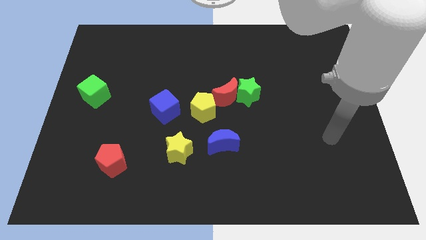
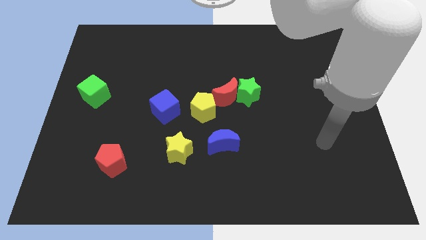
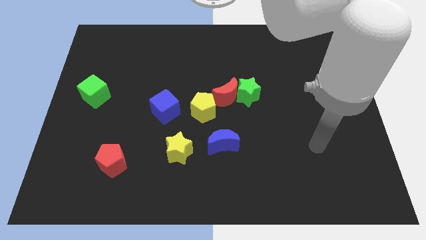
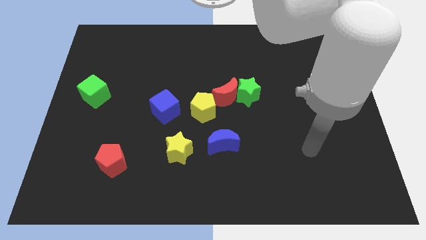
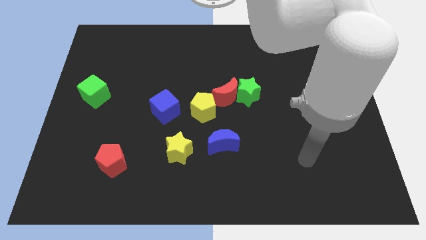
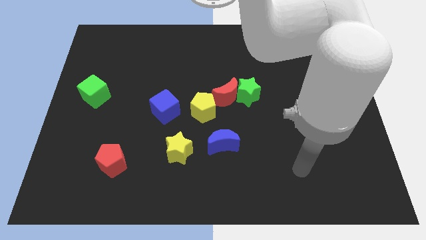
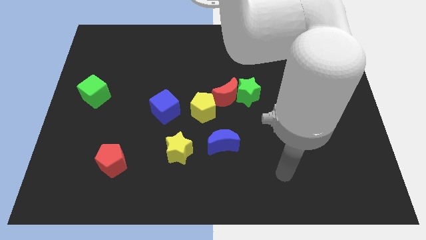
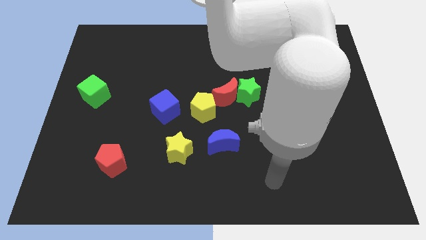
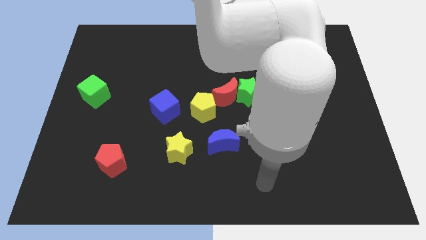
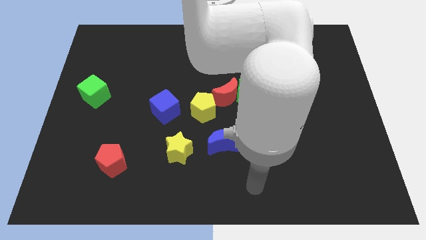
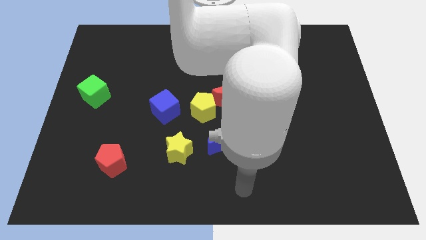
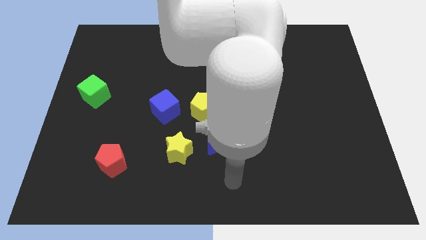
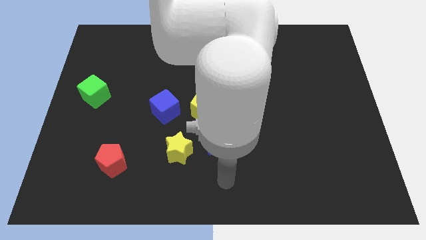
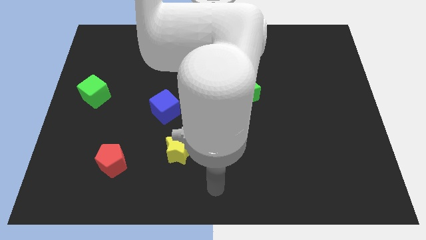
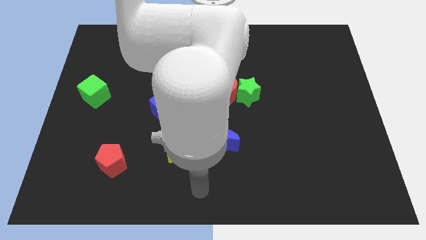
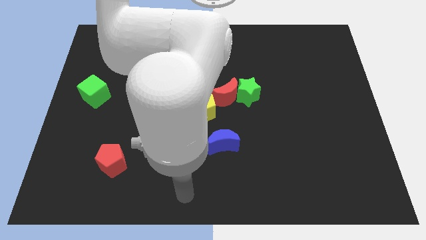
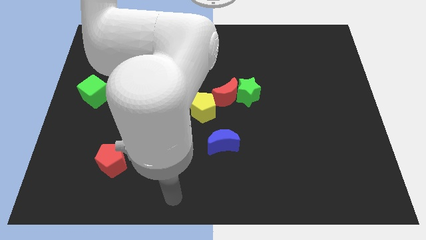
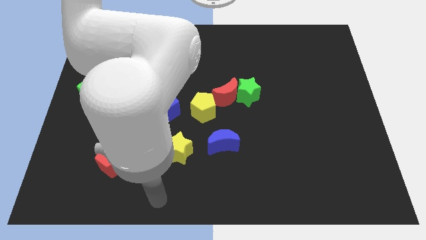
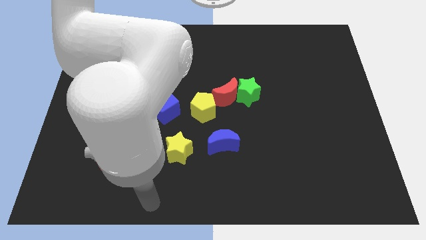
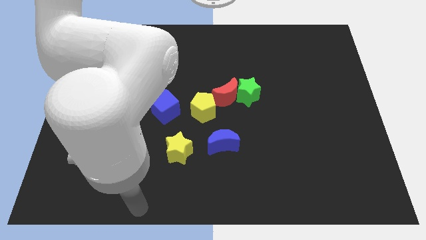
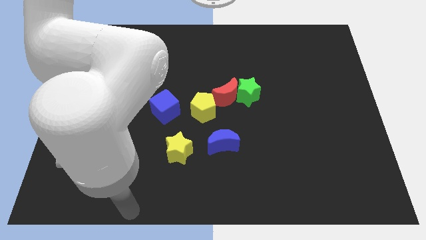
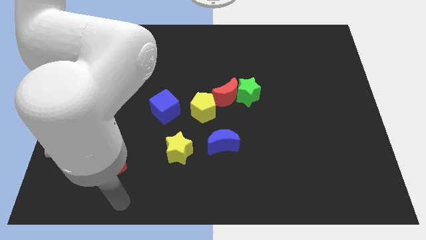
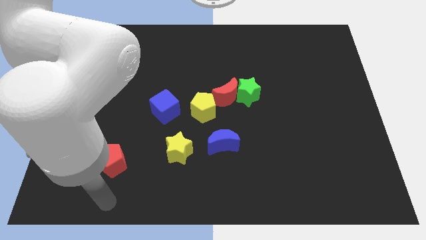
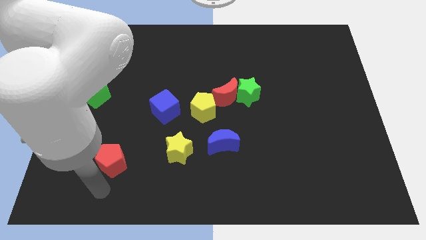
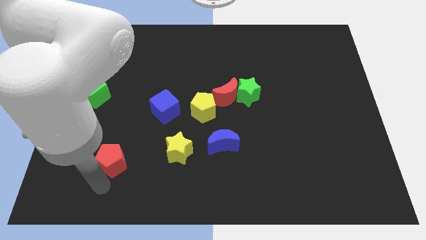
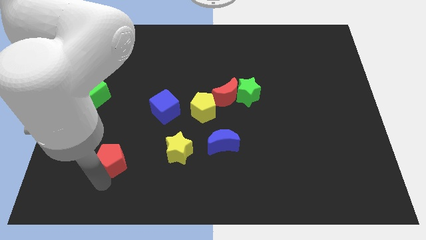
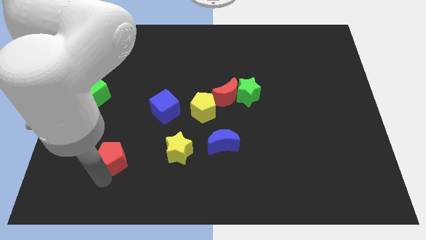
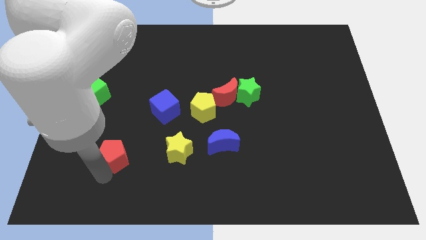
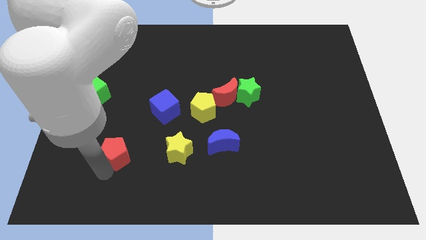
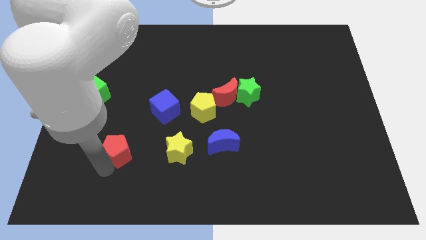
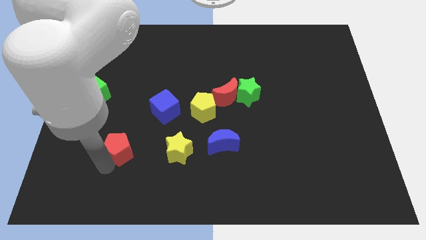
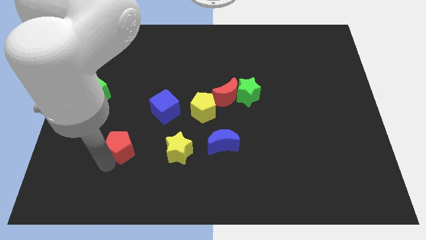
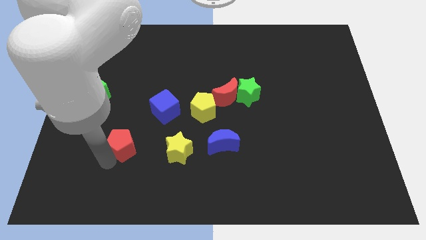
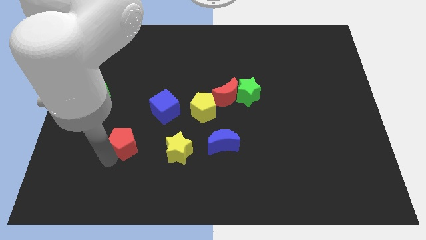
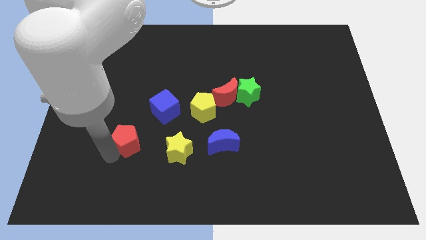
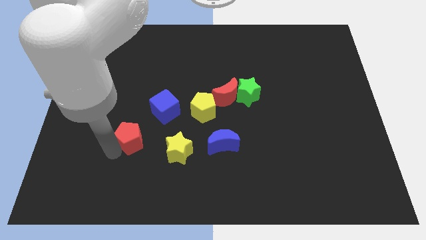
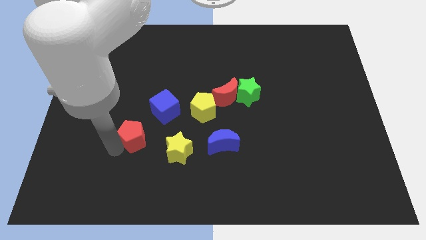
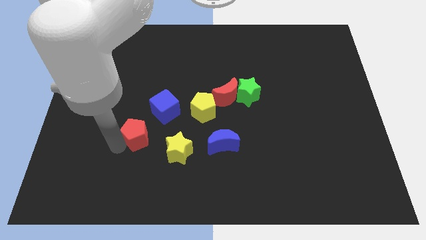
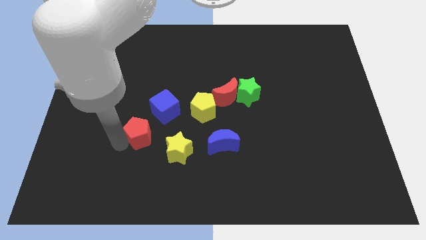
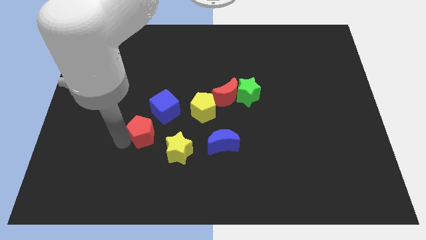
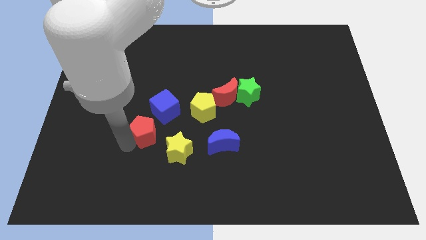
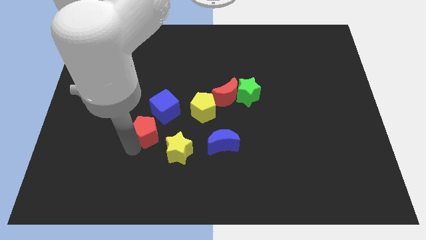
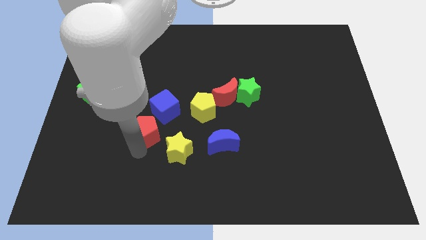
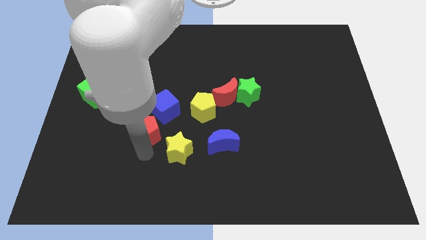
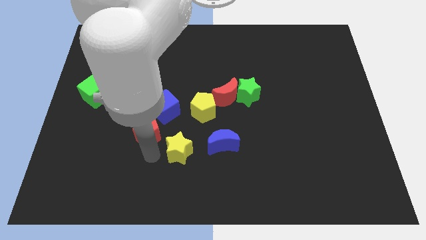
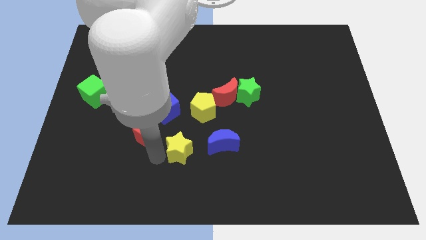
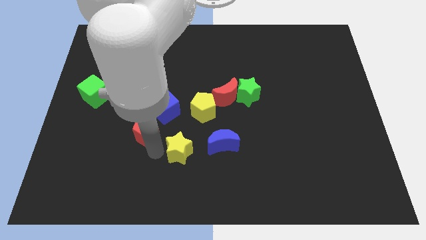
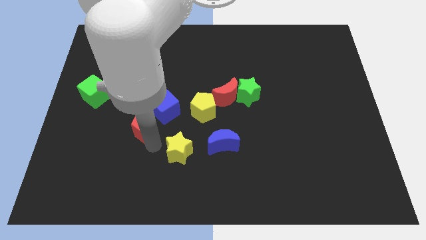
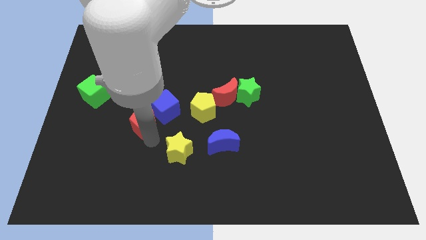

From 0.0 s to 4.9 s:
put the red pentagon left of the yellow pentagon

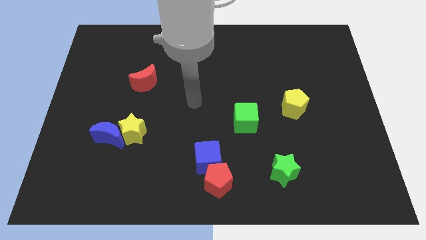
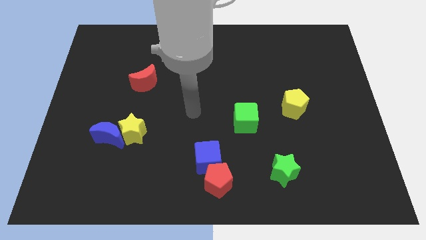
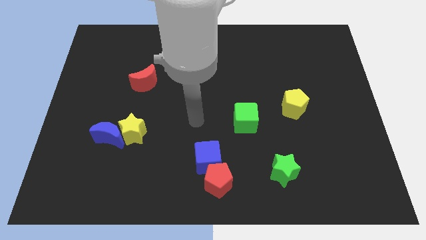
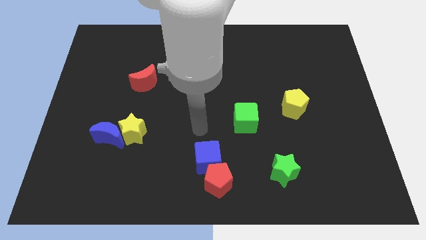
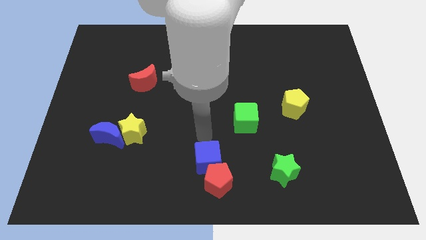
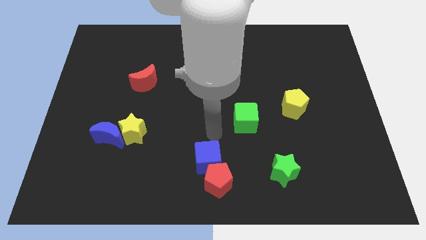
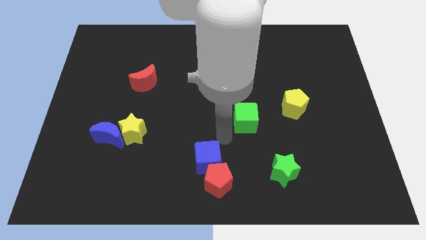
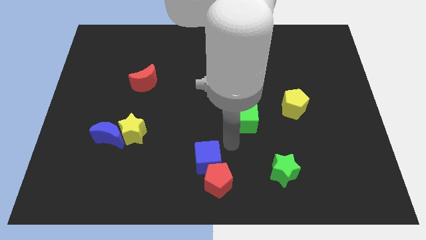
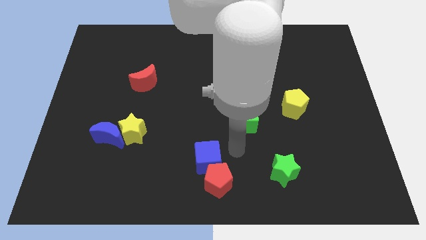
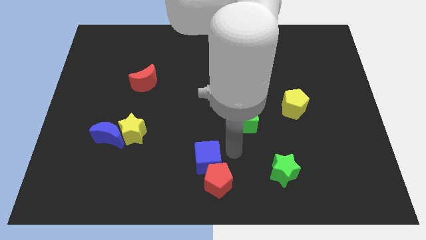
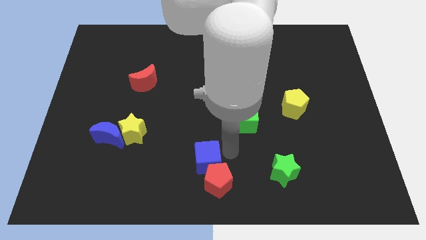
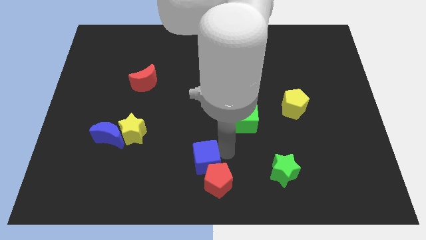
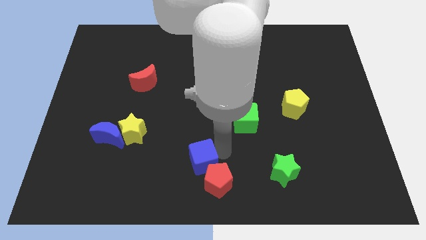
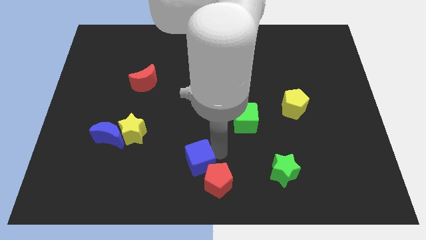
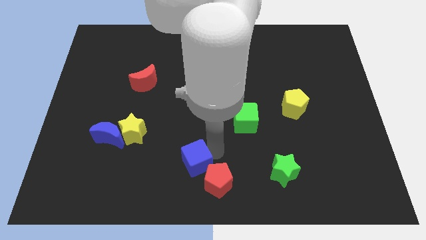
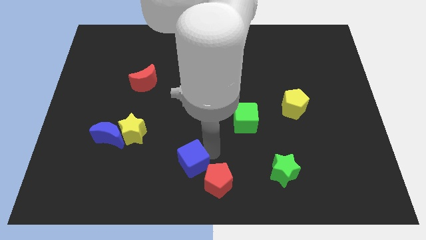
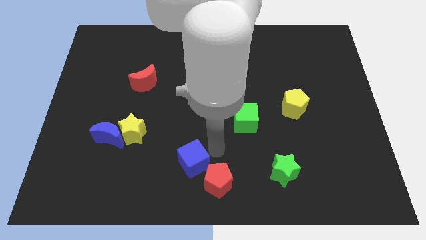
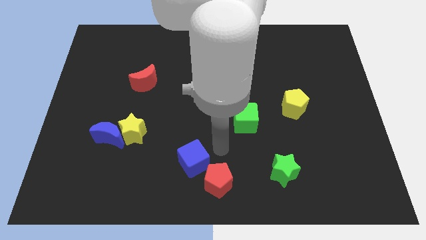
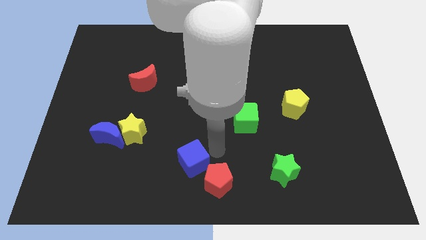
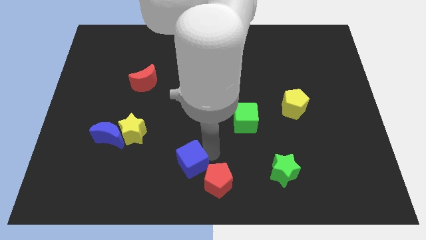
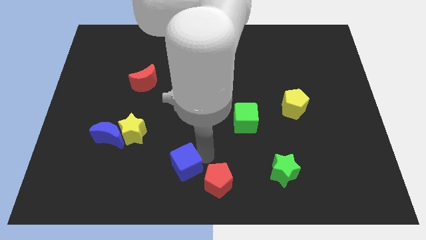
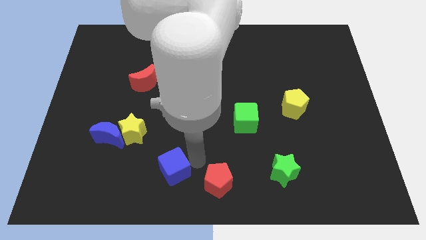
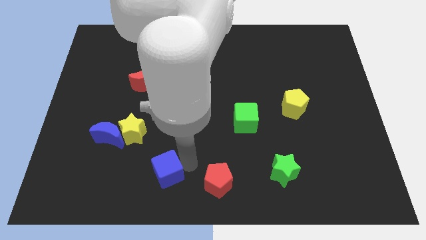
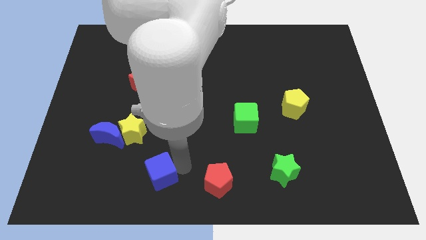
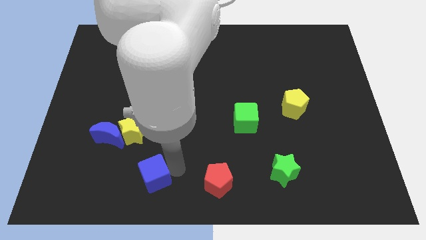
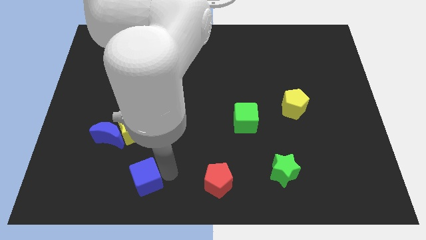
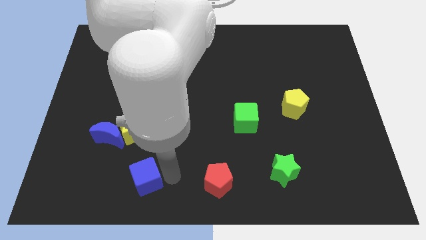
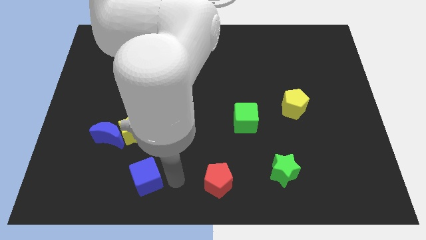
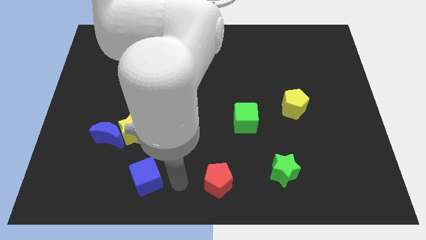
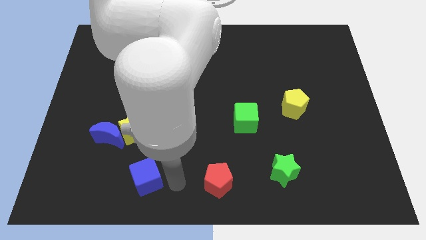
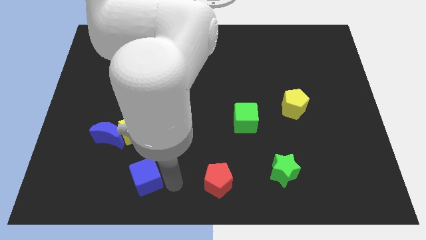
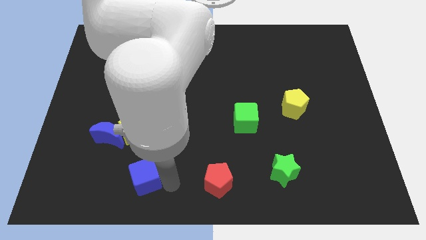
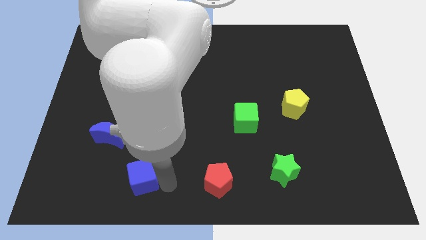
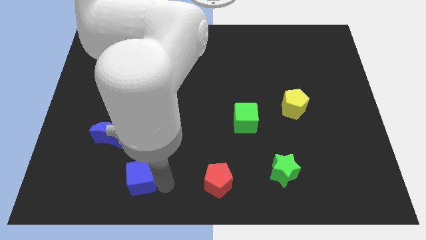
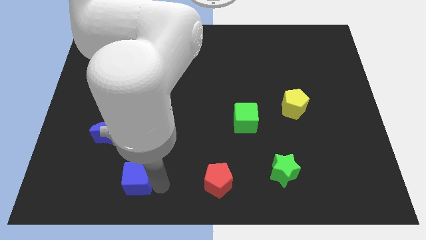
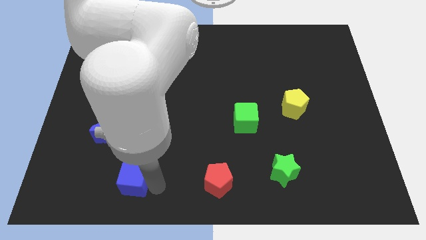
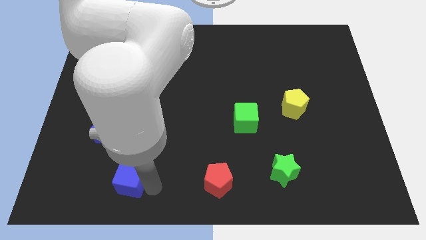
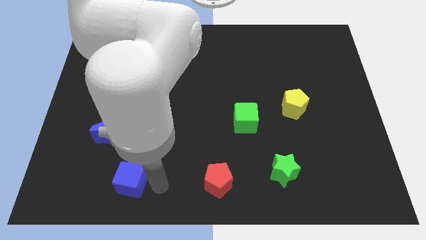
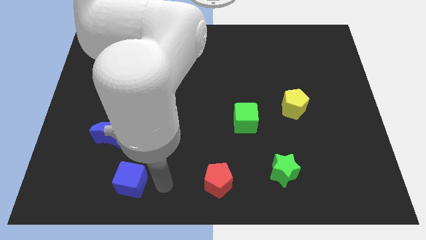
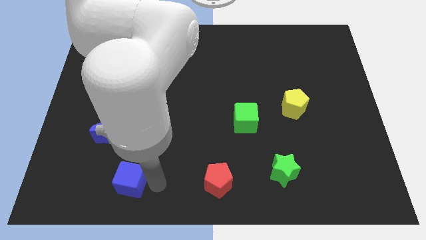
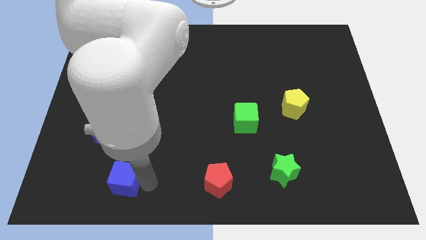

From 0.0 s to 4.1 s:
push the blue cube to the bottom side of the blue moon
